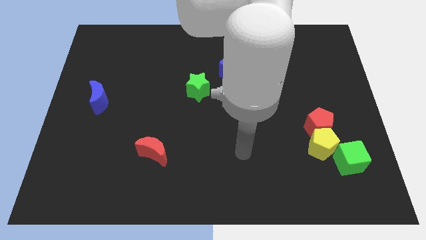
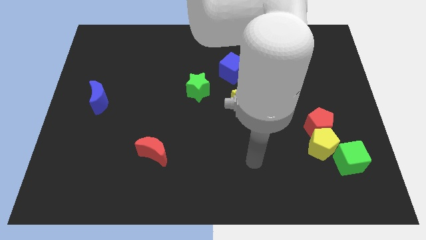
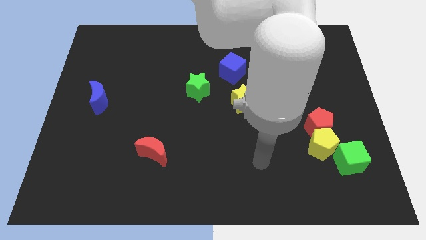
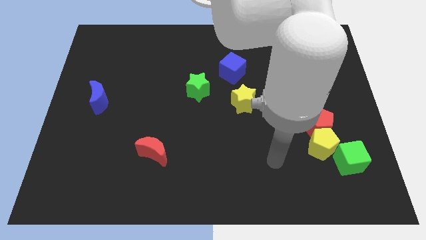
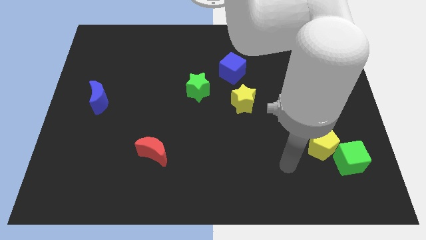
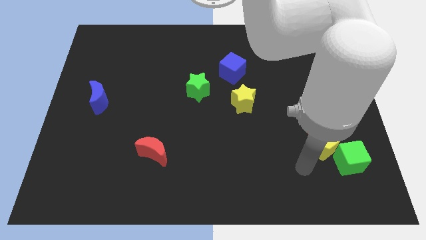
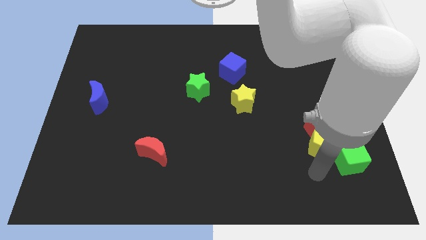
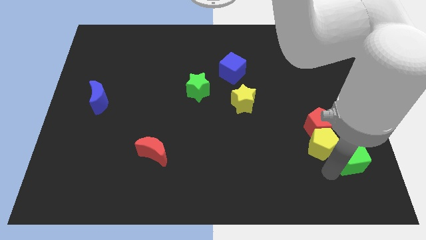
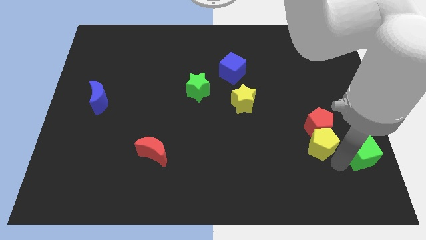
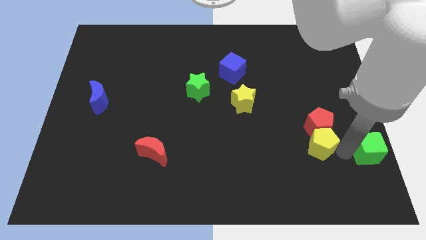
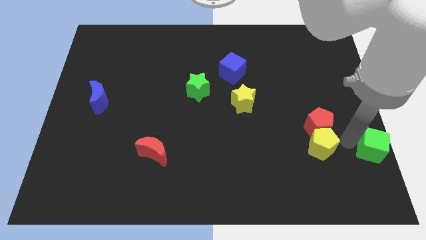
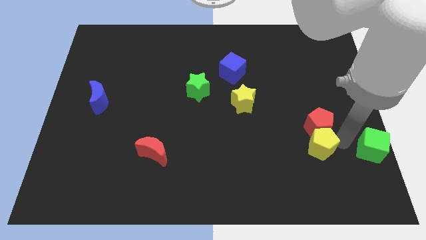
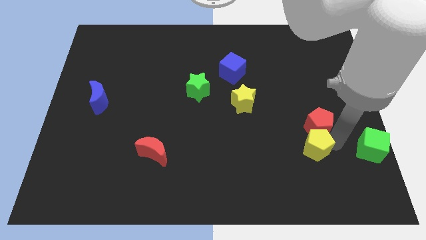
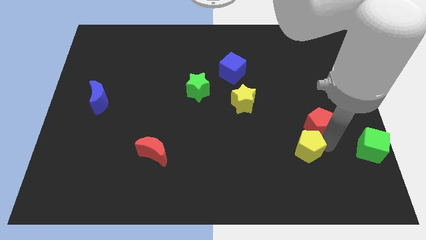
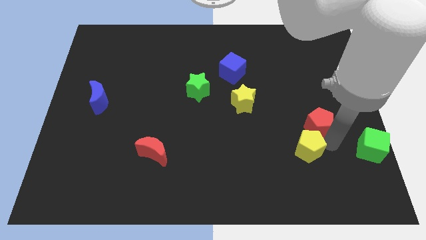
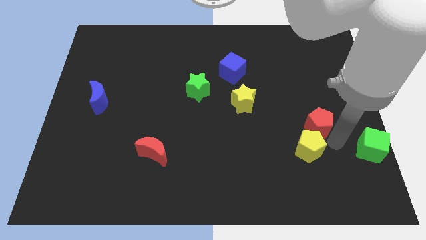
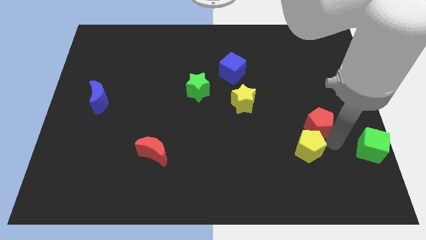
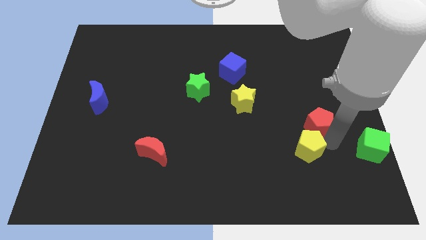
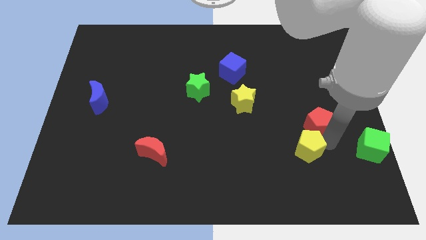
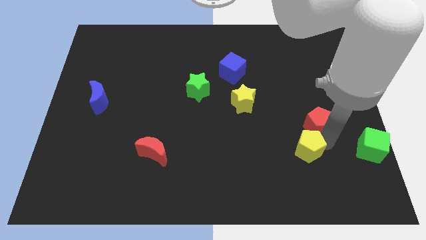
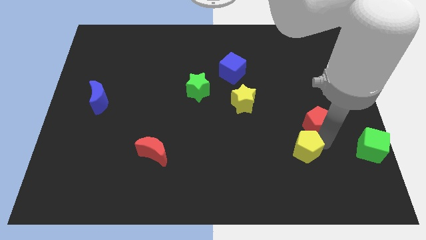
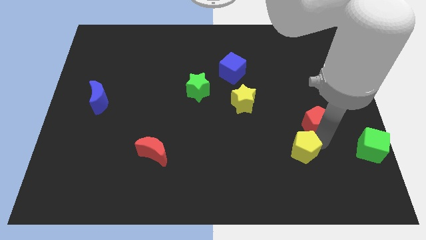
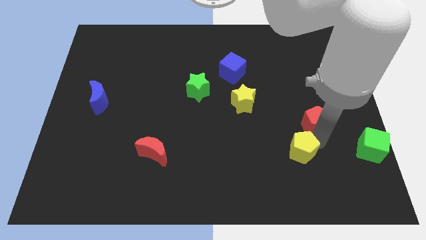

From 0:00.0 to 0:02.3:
move the yellow pentagon away from the red pentagon and green cube

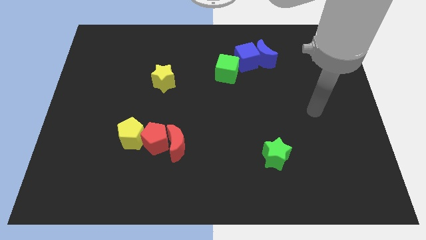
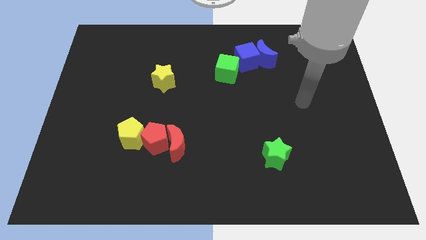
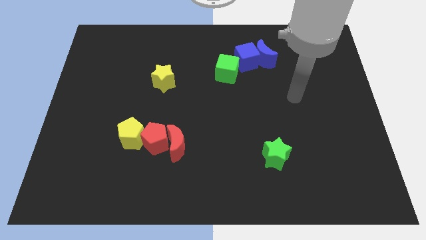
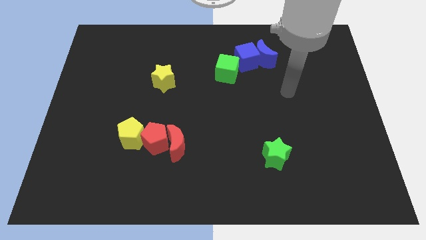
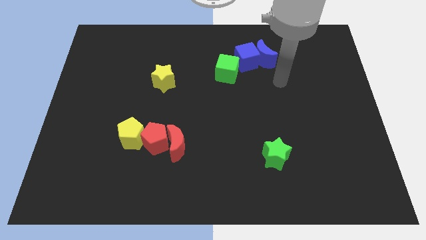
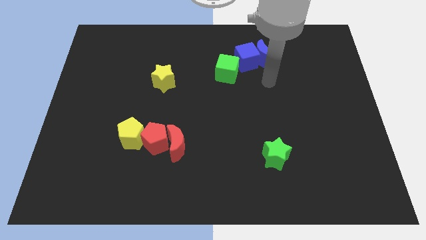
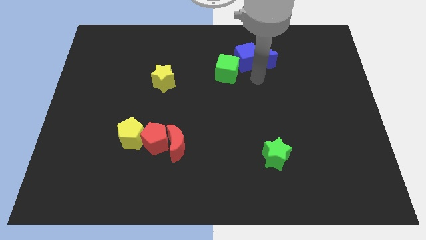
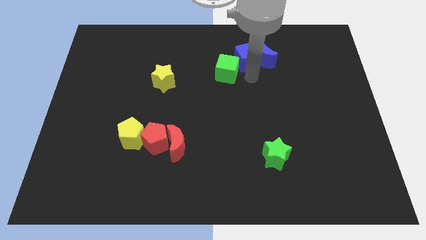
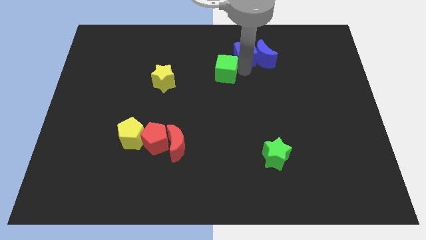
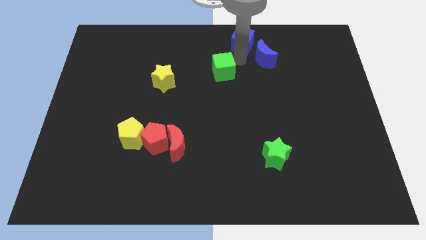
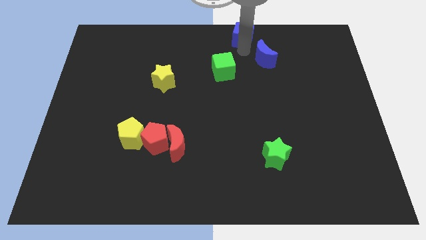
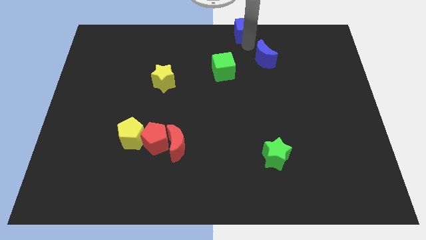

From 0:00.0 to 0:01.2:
pull the blue moon apart from the blue cube

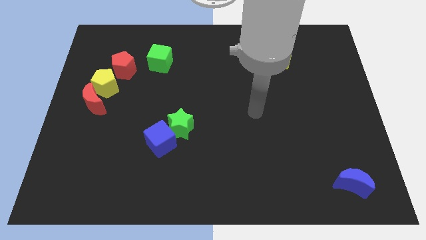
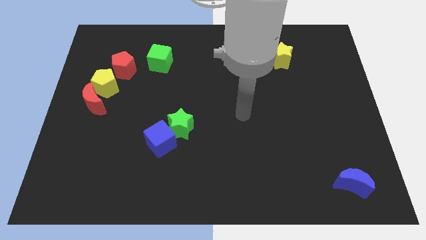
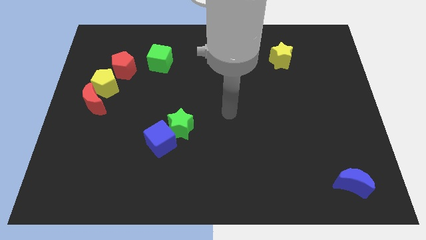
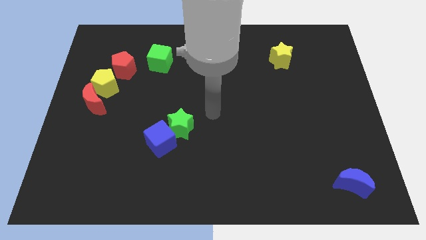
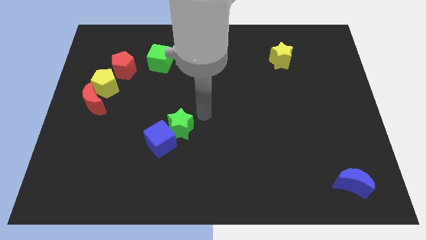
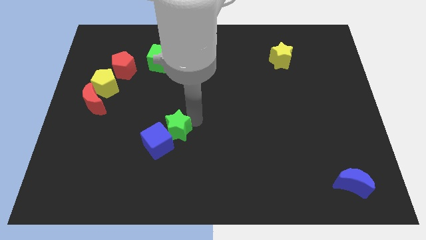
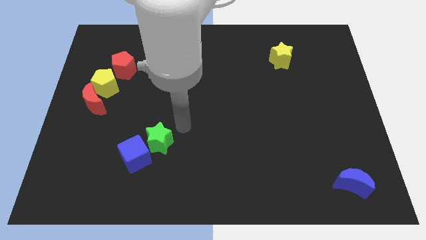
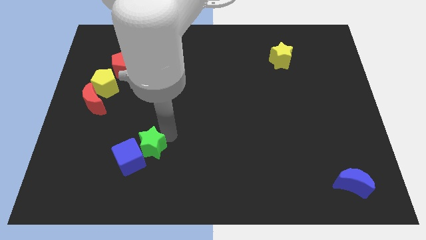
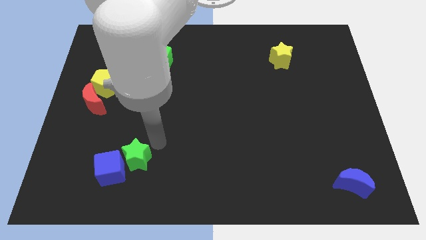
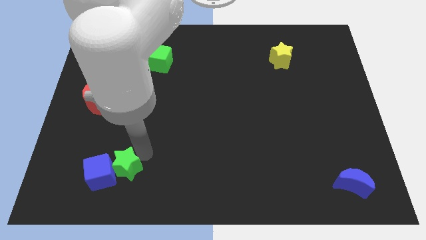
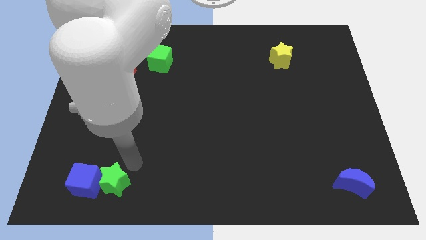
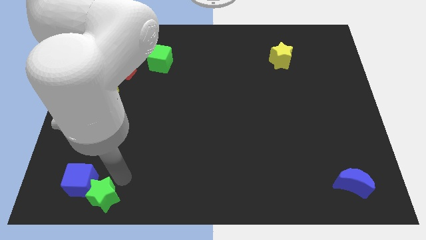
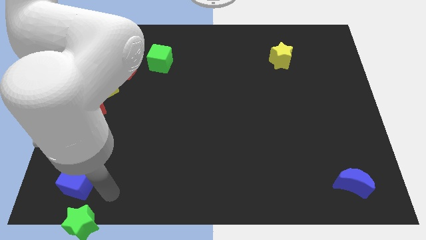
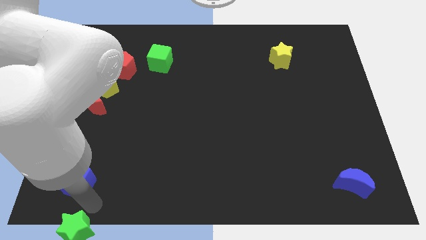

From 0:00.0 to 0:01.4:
separate the blue cube from the green star

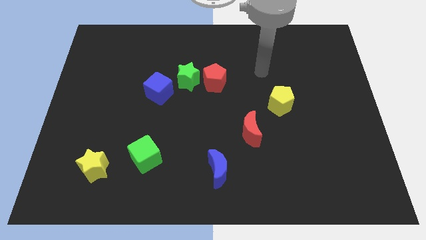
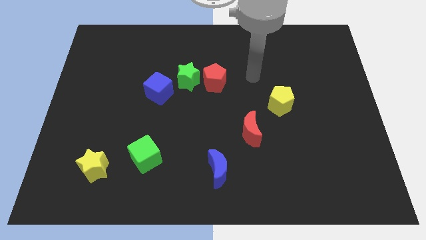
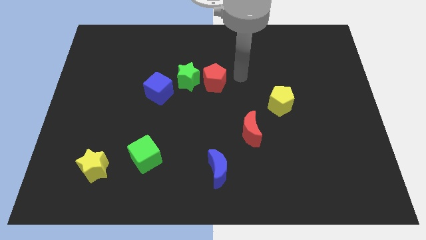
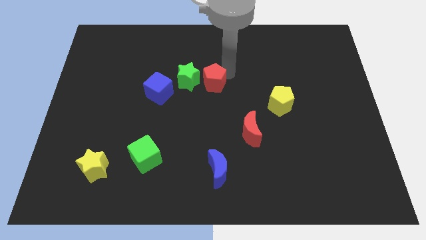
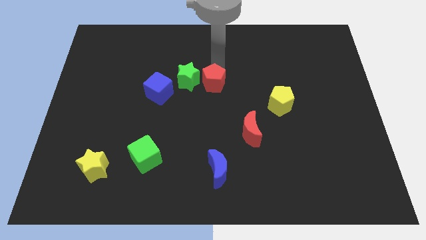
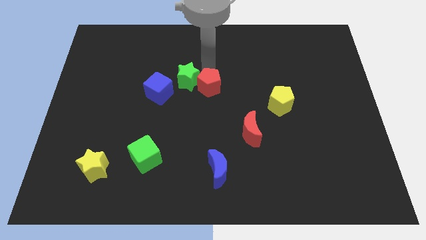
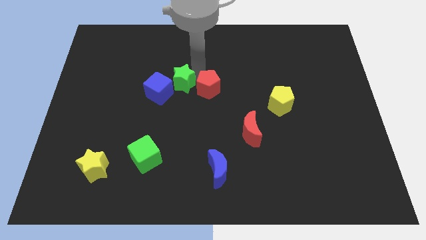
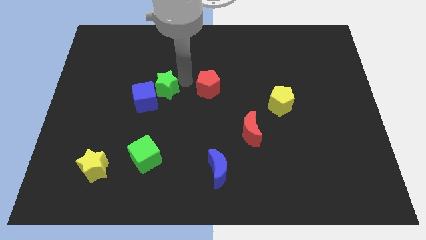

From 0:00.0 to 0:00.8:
separate the red pentagon from the green star

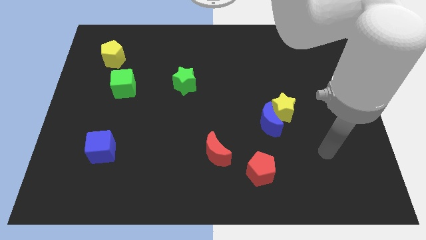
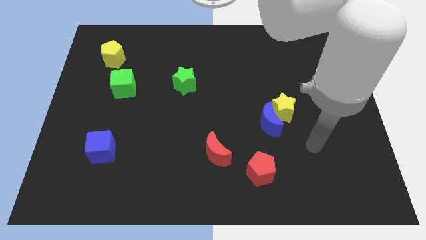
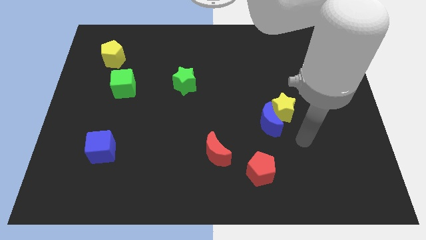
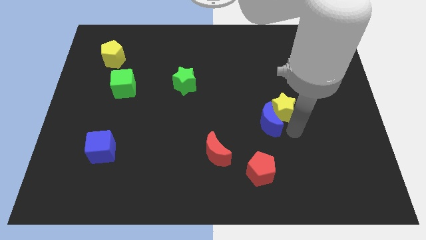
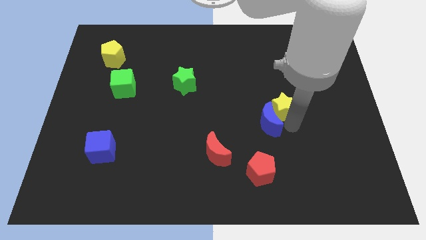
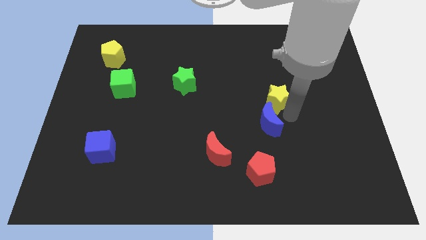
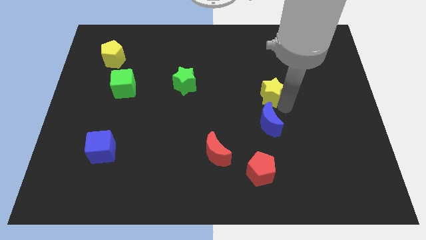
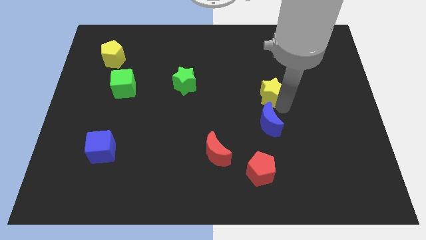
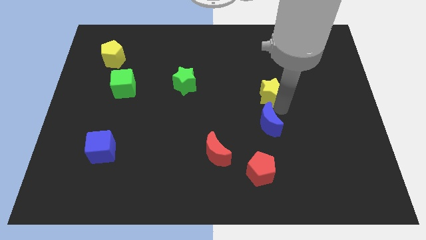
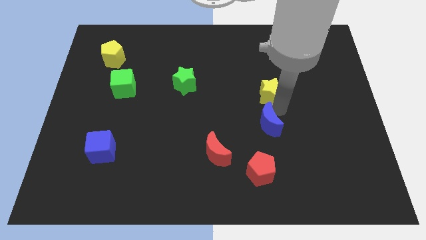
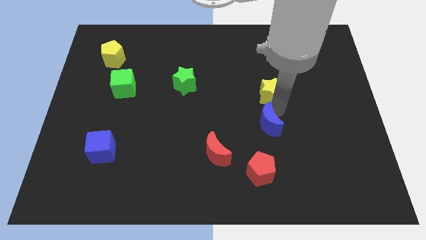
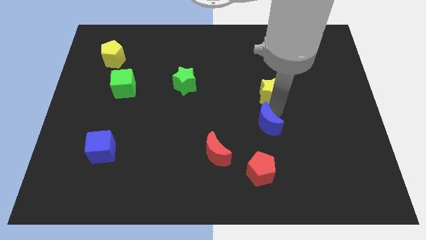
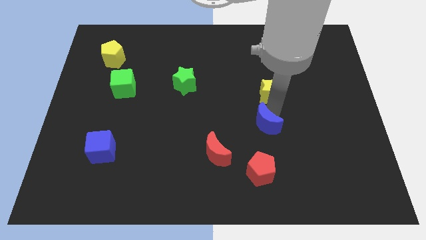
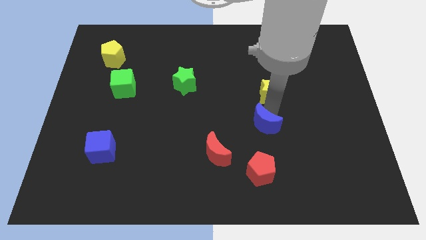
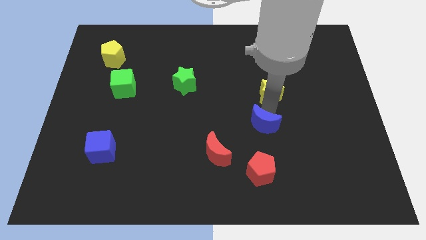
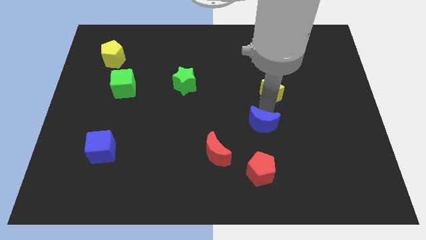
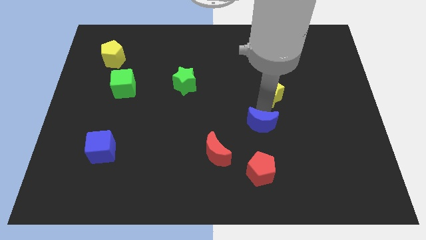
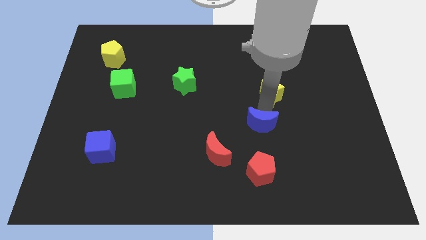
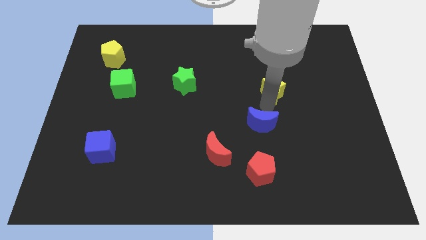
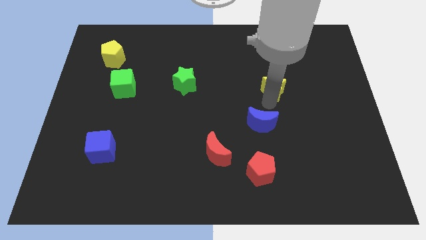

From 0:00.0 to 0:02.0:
separate the blue moon from the yellow star

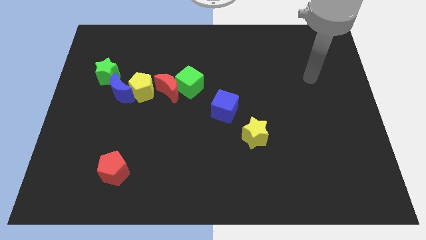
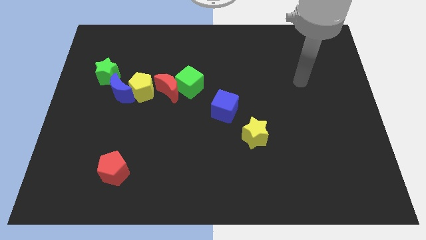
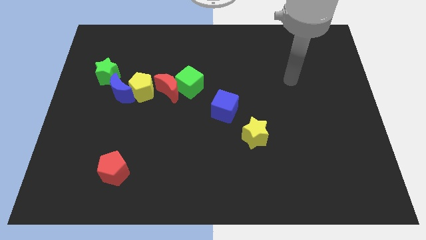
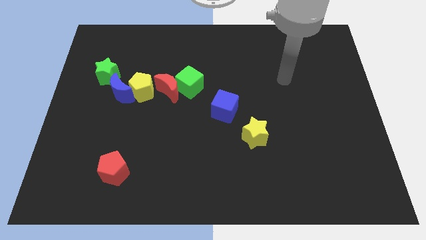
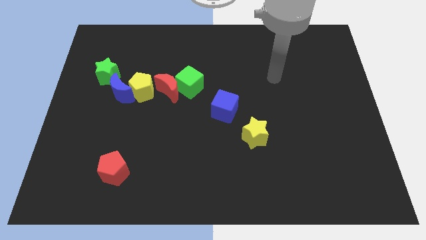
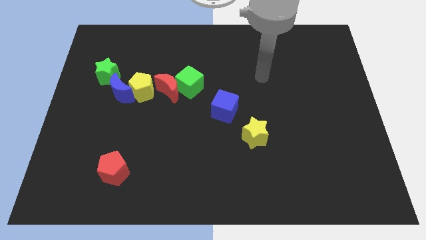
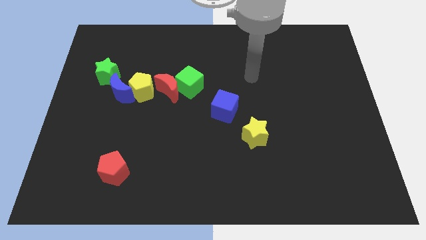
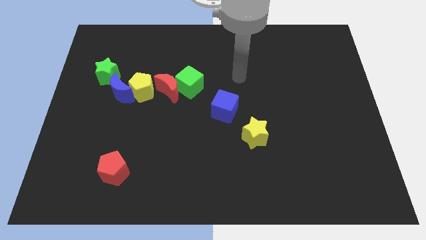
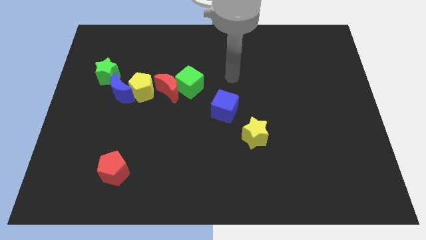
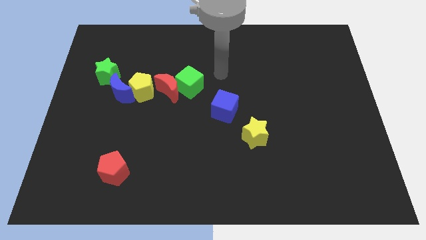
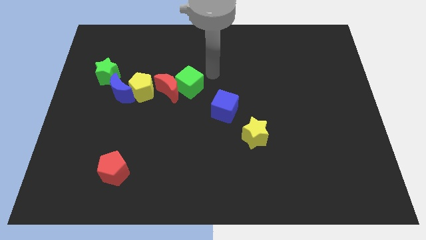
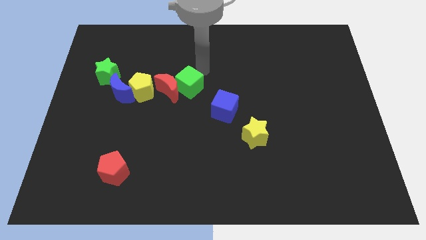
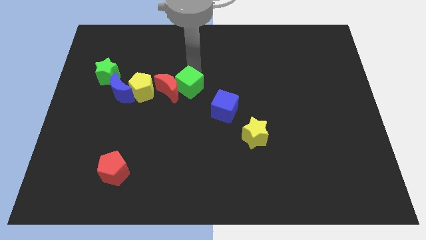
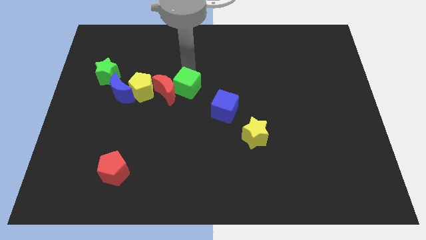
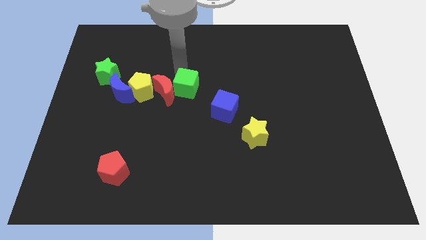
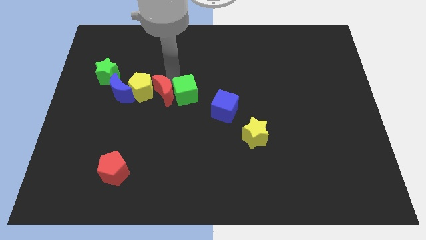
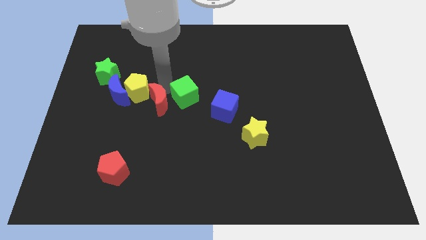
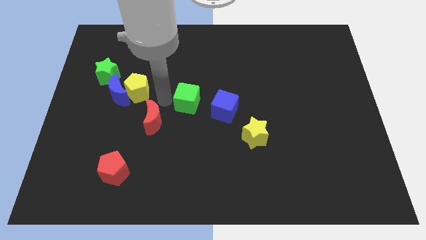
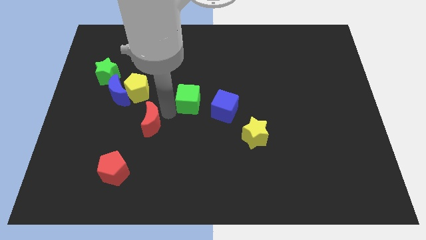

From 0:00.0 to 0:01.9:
separate the green cube from the red moon
